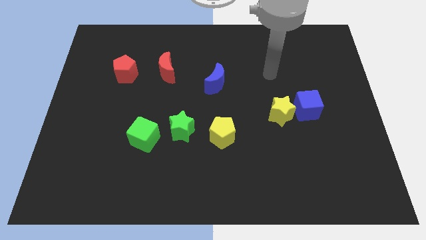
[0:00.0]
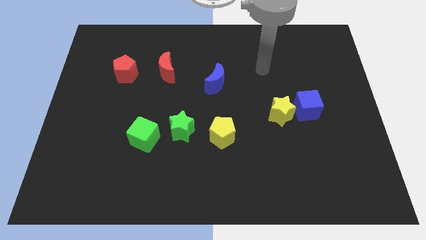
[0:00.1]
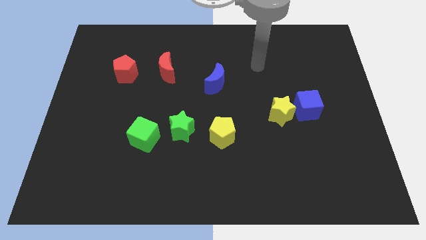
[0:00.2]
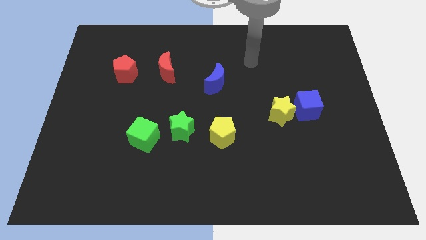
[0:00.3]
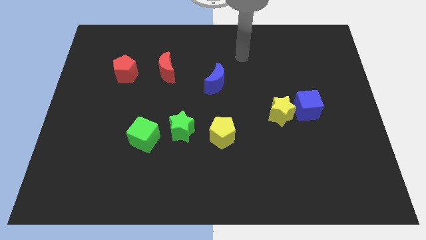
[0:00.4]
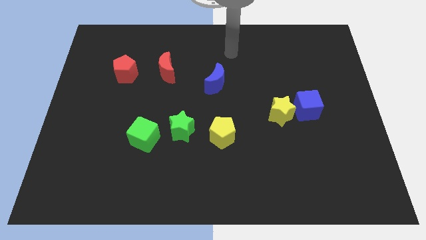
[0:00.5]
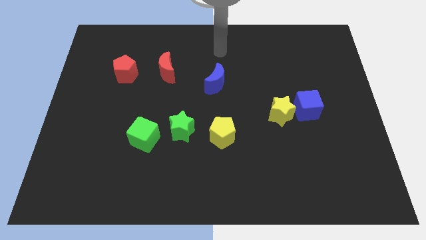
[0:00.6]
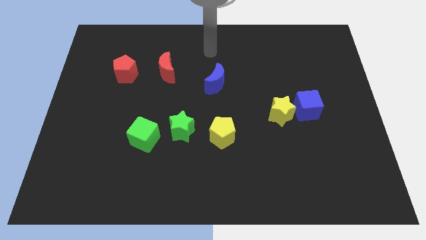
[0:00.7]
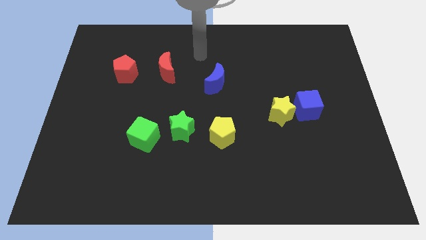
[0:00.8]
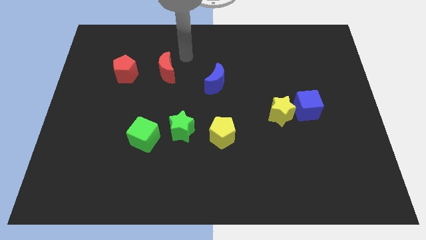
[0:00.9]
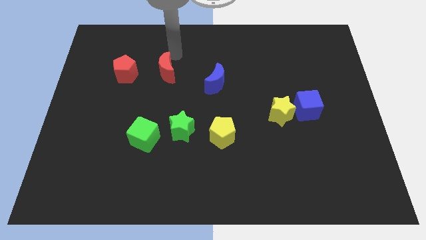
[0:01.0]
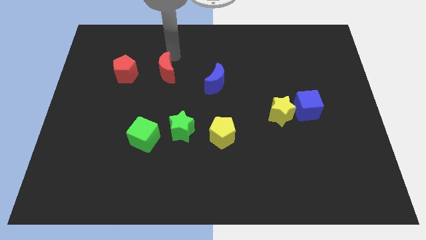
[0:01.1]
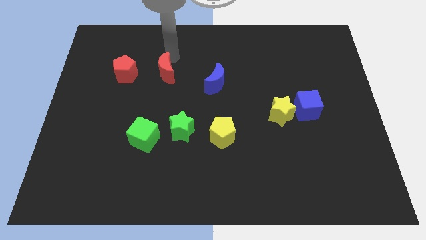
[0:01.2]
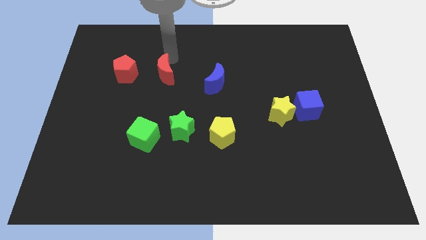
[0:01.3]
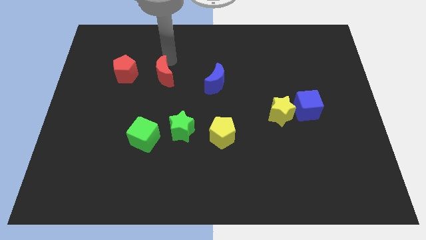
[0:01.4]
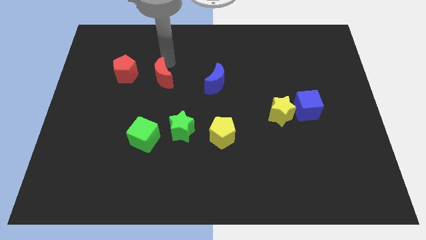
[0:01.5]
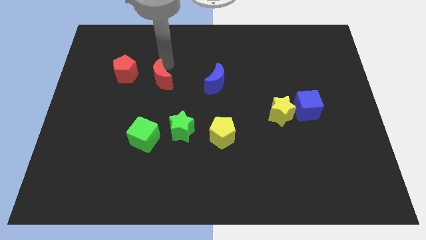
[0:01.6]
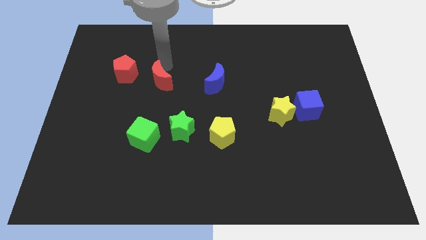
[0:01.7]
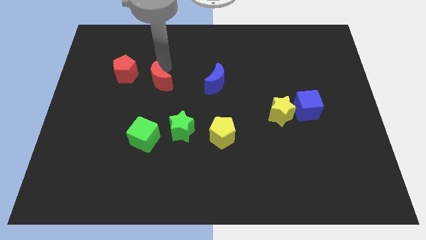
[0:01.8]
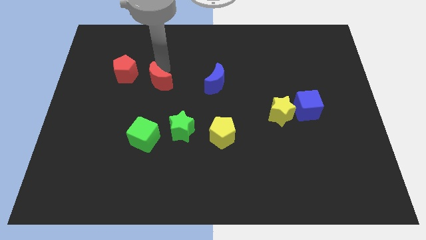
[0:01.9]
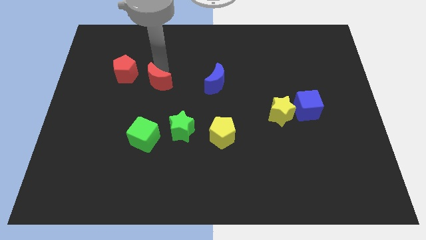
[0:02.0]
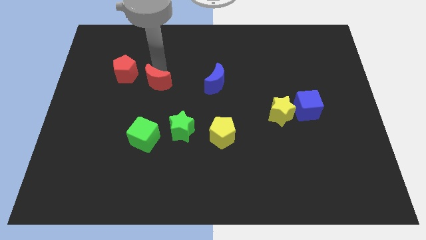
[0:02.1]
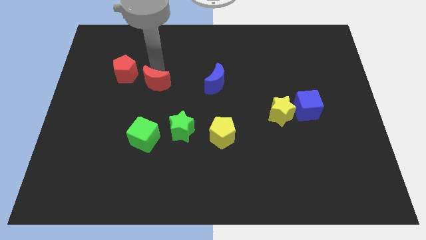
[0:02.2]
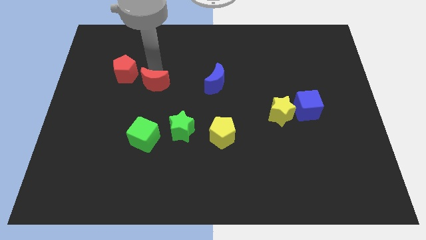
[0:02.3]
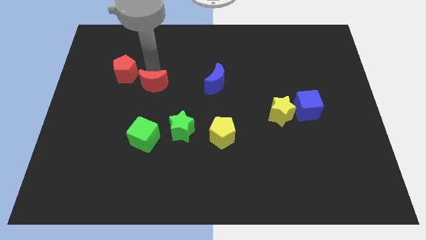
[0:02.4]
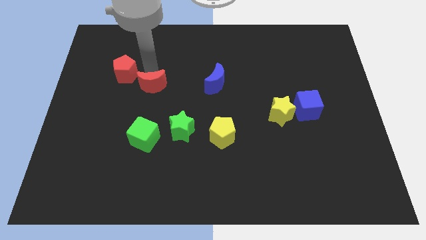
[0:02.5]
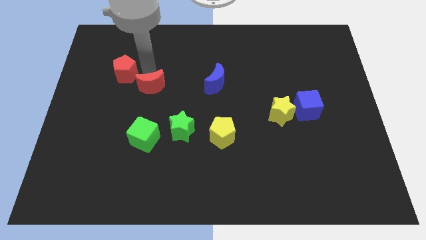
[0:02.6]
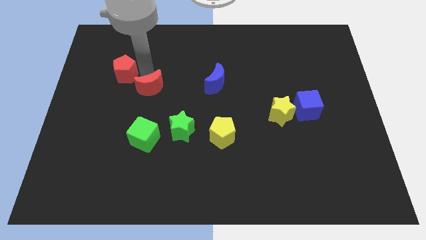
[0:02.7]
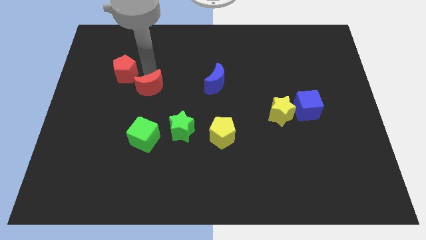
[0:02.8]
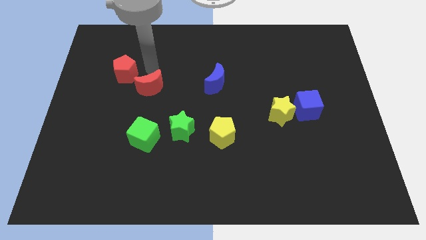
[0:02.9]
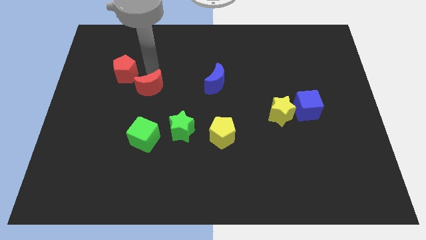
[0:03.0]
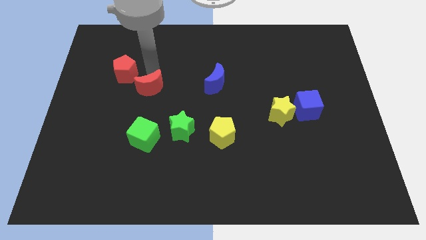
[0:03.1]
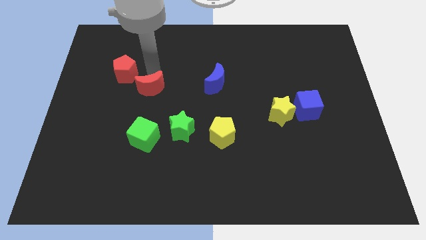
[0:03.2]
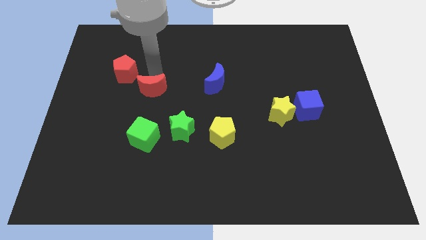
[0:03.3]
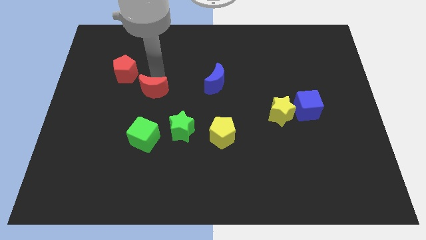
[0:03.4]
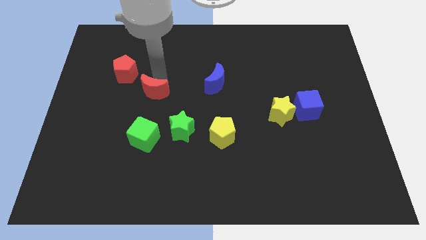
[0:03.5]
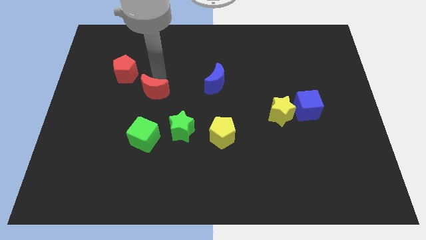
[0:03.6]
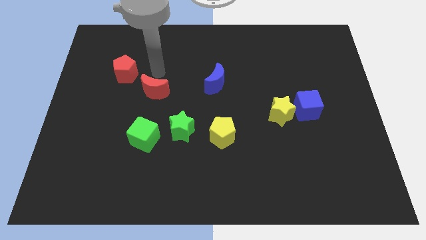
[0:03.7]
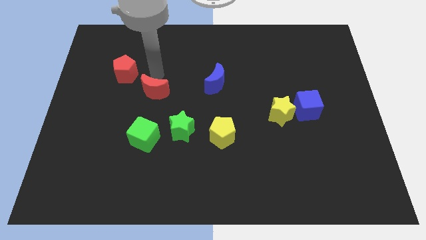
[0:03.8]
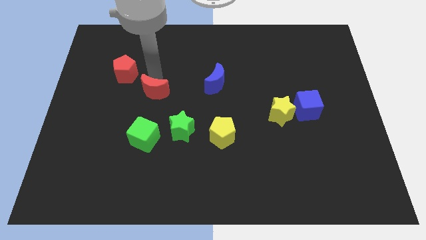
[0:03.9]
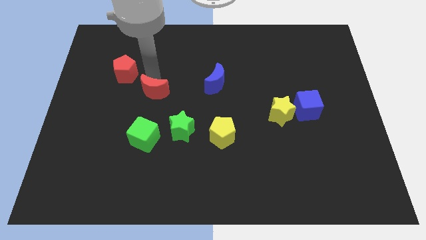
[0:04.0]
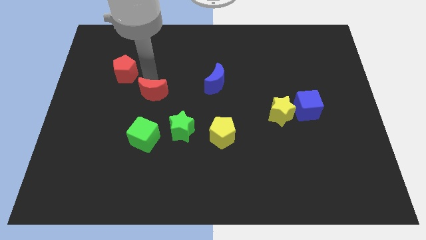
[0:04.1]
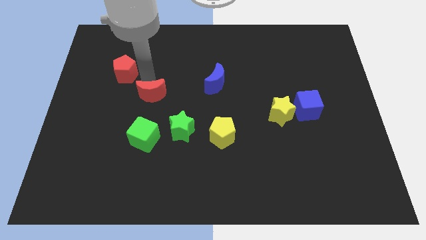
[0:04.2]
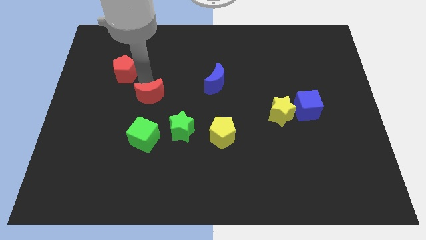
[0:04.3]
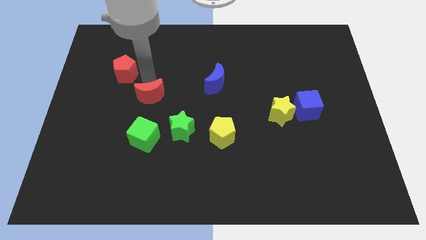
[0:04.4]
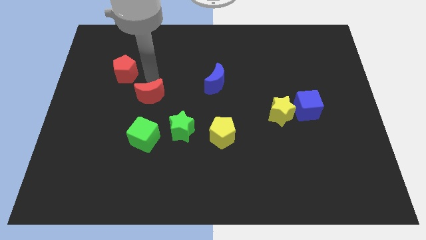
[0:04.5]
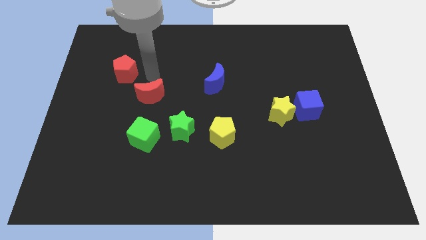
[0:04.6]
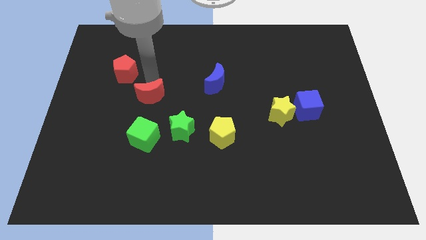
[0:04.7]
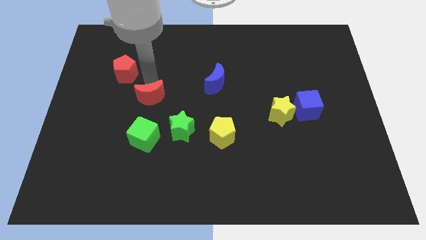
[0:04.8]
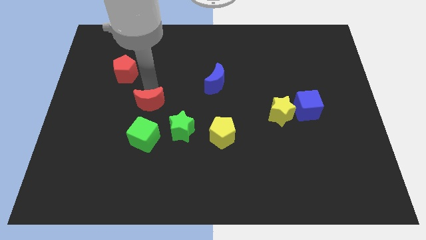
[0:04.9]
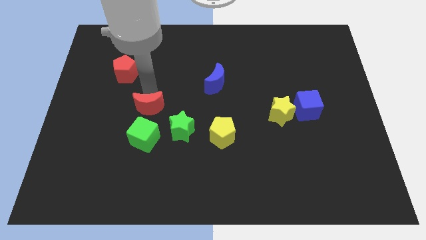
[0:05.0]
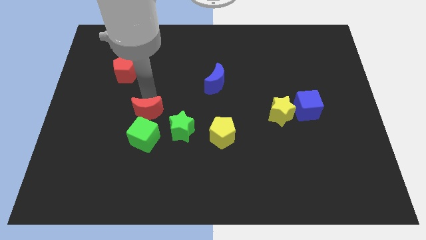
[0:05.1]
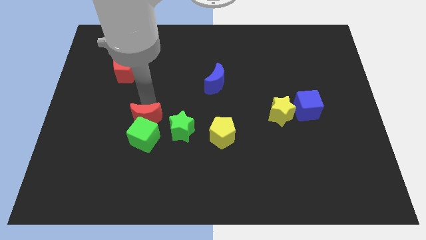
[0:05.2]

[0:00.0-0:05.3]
push the red moon towards the green cube

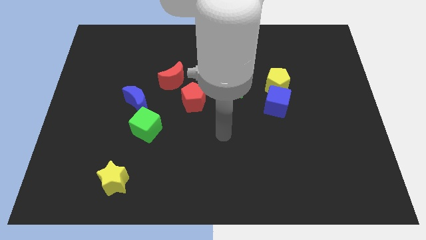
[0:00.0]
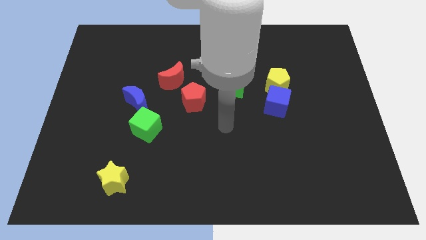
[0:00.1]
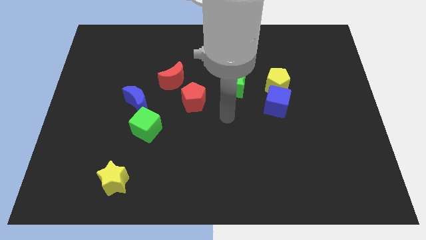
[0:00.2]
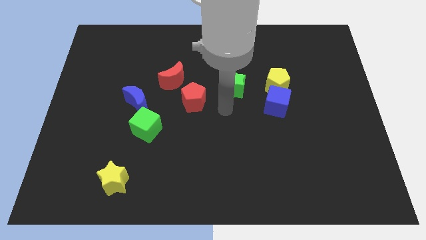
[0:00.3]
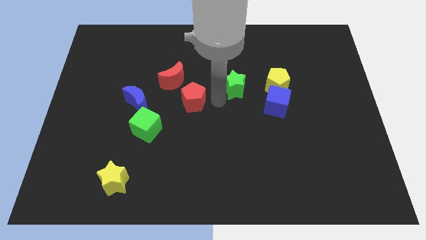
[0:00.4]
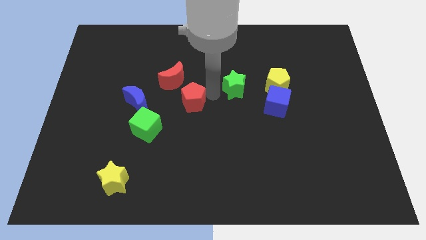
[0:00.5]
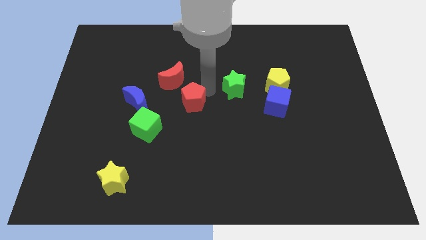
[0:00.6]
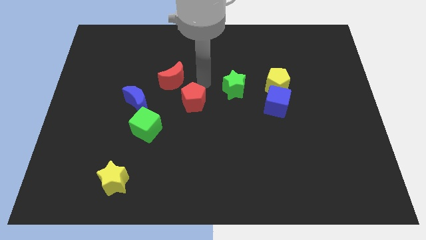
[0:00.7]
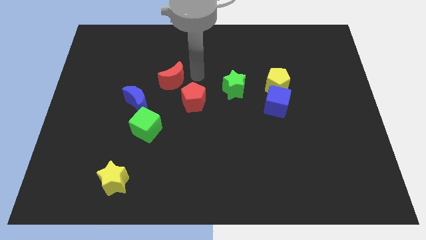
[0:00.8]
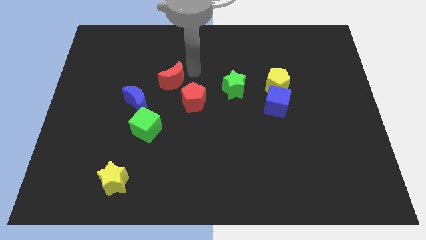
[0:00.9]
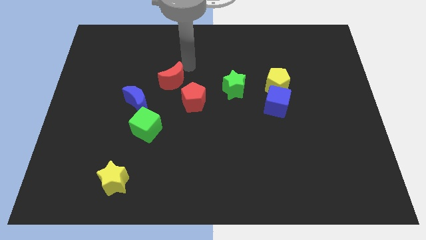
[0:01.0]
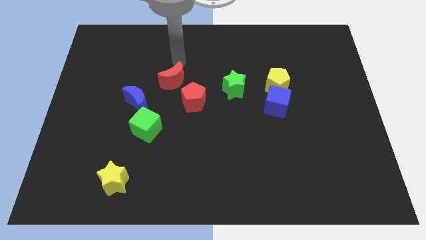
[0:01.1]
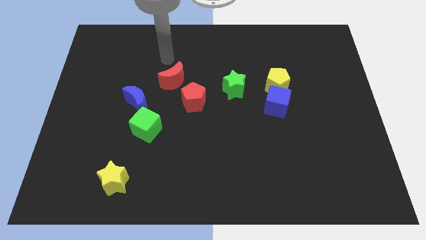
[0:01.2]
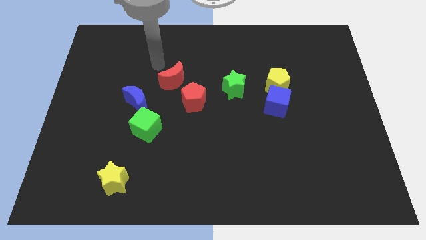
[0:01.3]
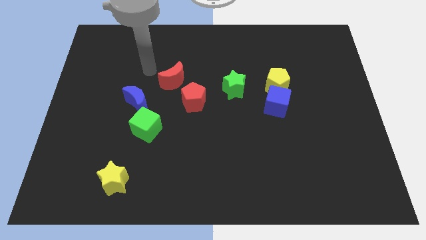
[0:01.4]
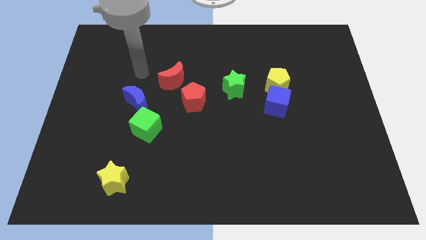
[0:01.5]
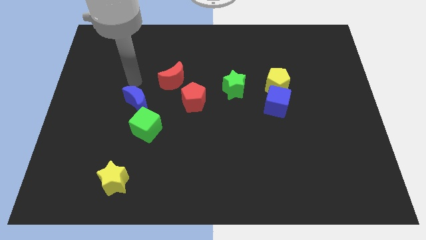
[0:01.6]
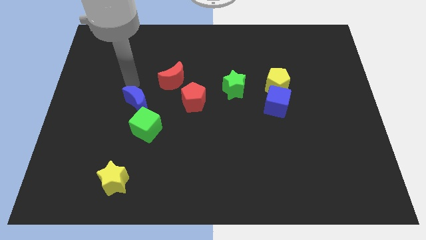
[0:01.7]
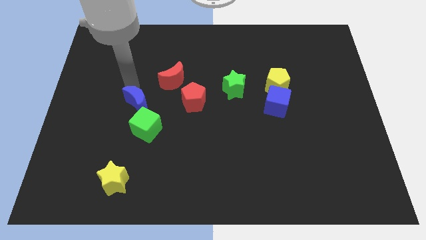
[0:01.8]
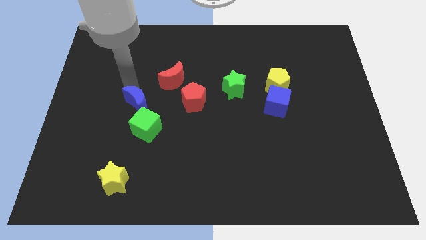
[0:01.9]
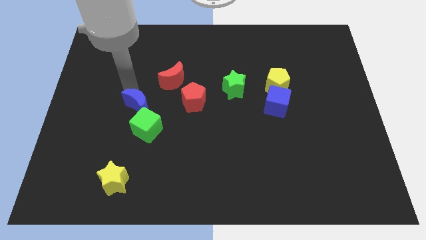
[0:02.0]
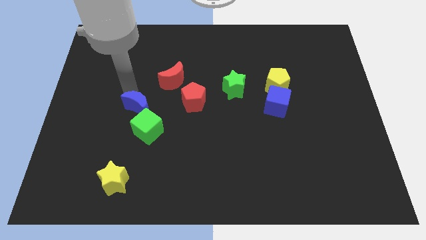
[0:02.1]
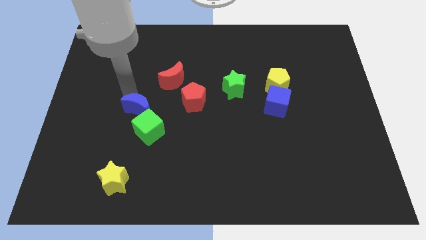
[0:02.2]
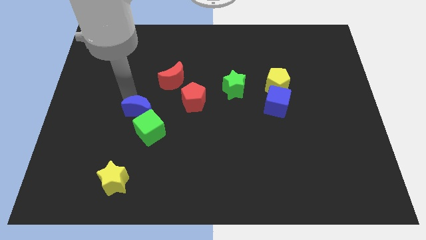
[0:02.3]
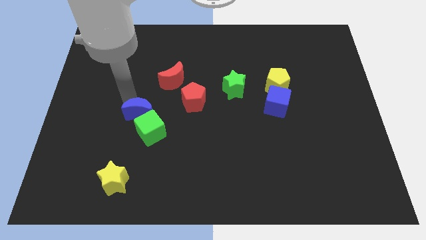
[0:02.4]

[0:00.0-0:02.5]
move the blue moon towards the green cube

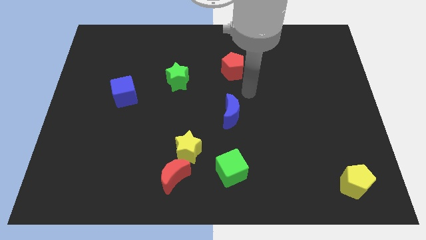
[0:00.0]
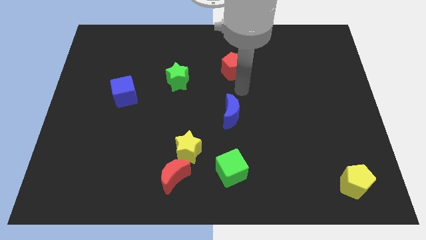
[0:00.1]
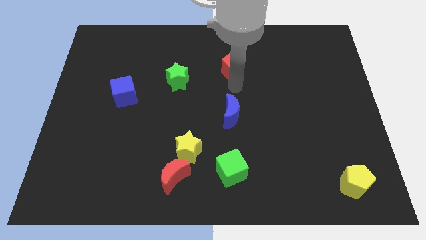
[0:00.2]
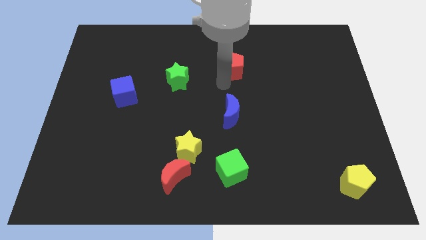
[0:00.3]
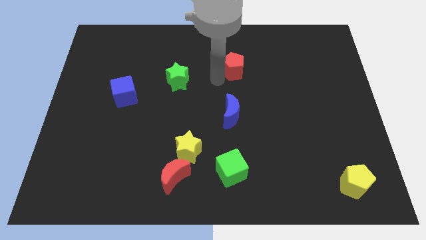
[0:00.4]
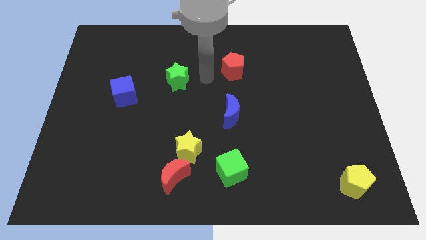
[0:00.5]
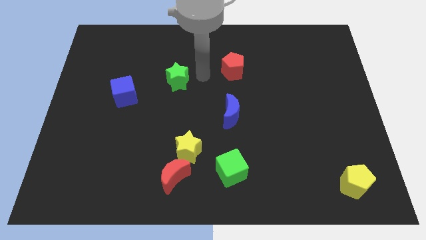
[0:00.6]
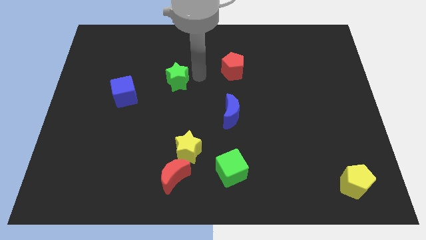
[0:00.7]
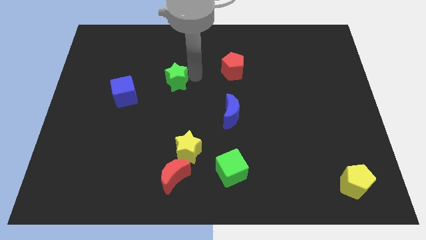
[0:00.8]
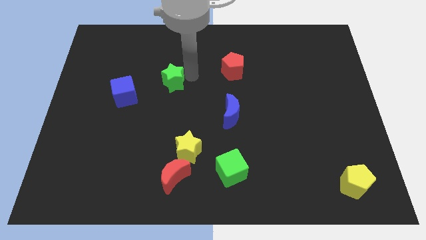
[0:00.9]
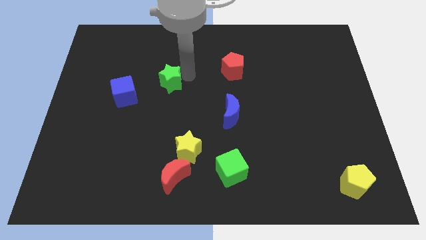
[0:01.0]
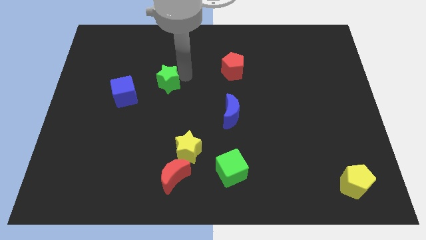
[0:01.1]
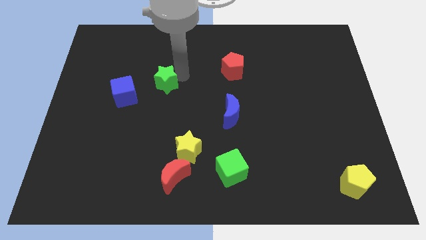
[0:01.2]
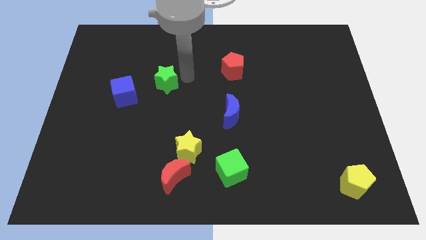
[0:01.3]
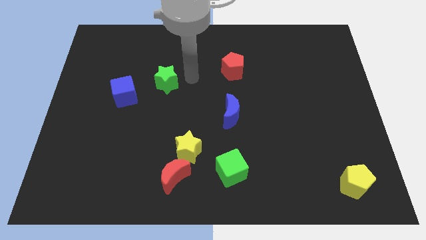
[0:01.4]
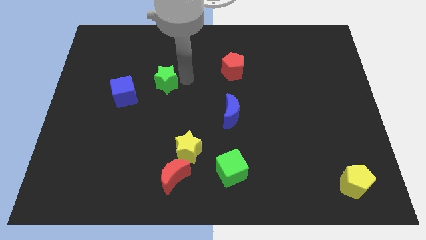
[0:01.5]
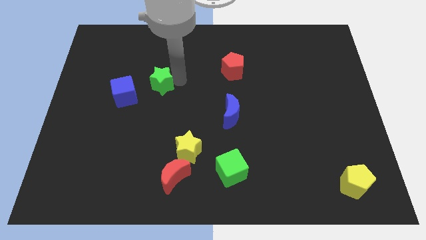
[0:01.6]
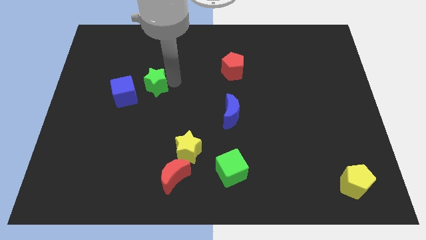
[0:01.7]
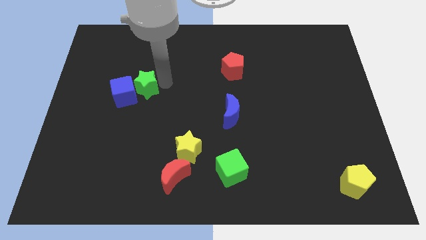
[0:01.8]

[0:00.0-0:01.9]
slide the green star close to the blue cube
